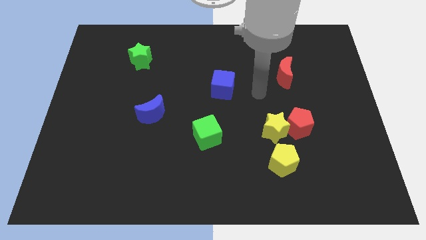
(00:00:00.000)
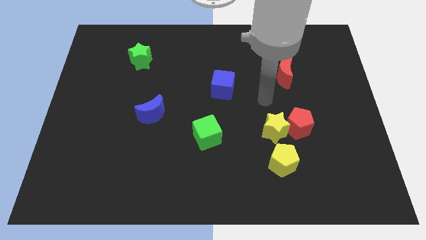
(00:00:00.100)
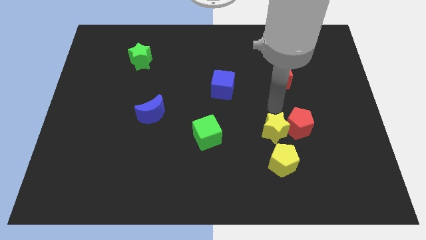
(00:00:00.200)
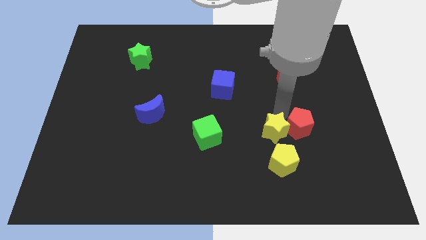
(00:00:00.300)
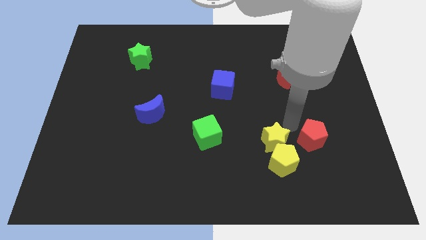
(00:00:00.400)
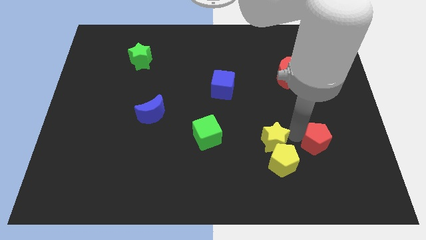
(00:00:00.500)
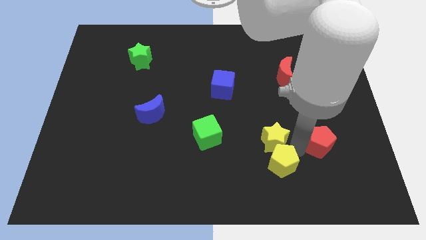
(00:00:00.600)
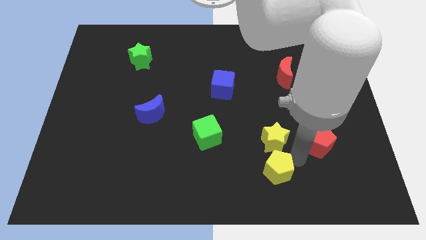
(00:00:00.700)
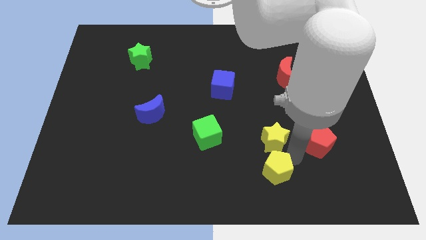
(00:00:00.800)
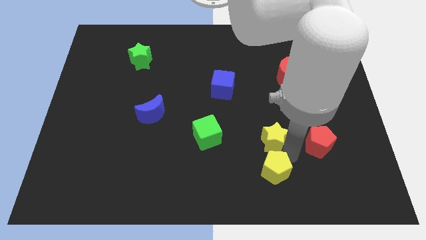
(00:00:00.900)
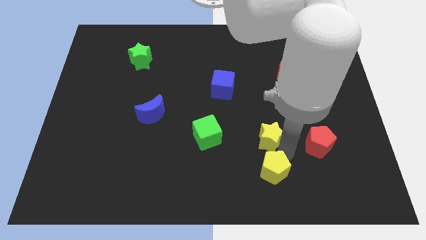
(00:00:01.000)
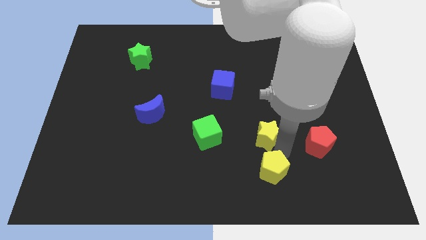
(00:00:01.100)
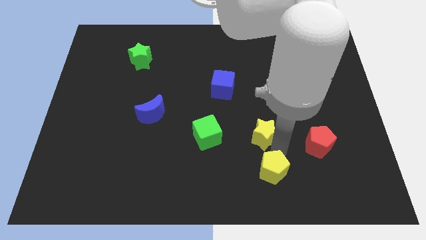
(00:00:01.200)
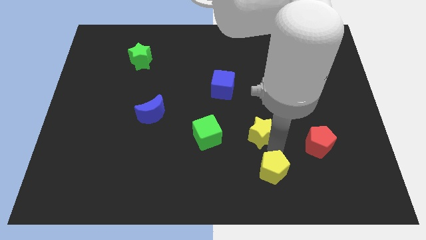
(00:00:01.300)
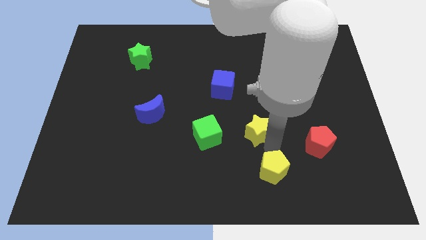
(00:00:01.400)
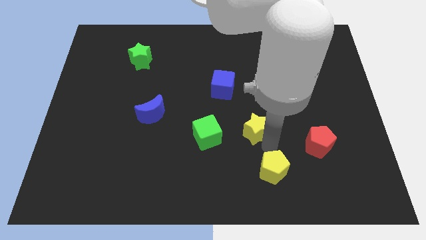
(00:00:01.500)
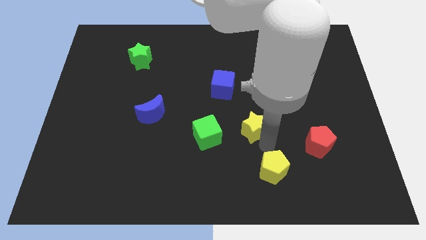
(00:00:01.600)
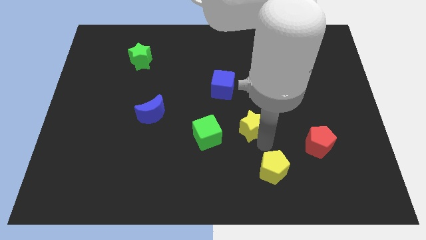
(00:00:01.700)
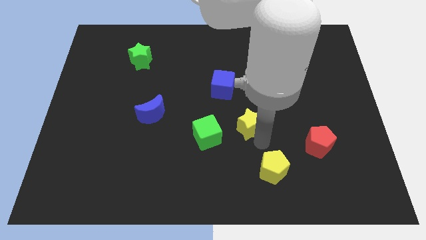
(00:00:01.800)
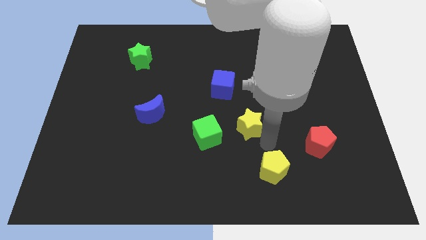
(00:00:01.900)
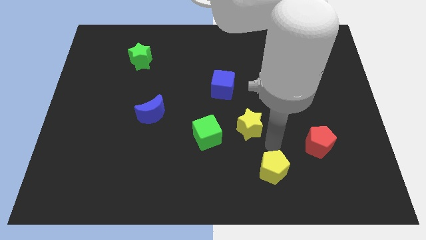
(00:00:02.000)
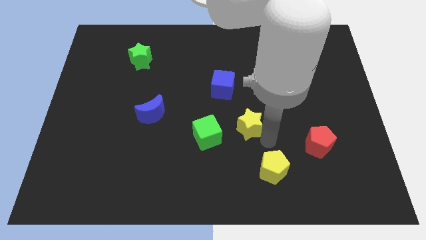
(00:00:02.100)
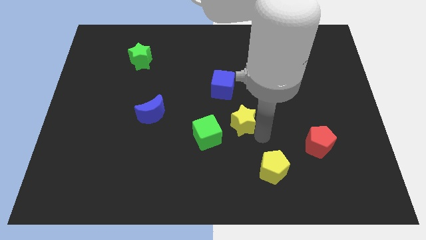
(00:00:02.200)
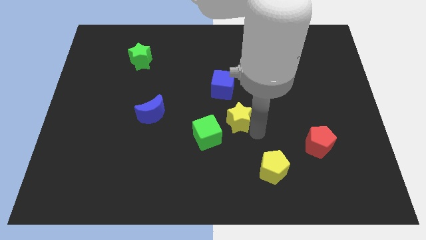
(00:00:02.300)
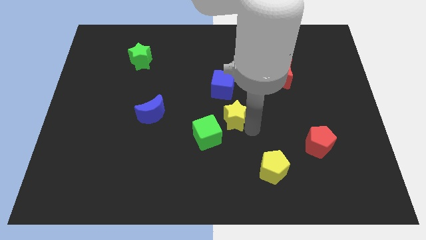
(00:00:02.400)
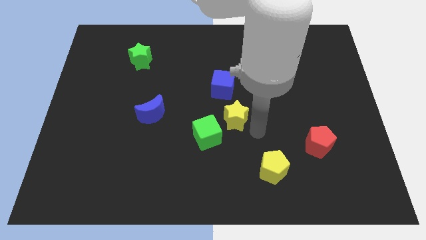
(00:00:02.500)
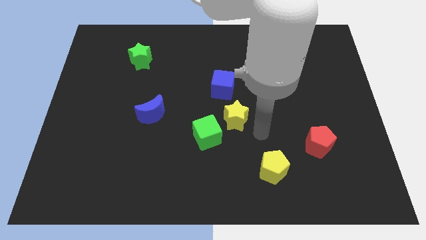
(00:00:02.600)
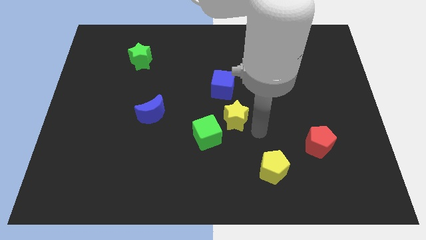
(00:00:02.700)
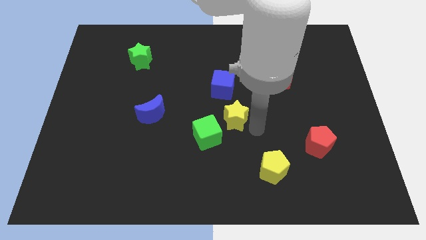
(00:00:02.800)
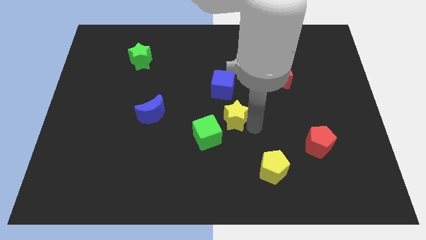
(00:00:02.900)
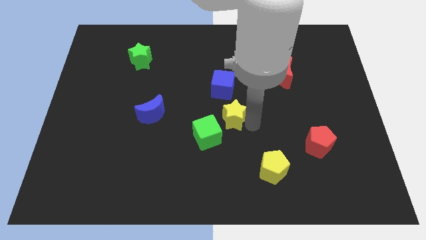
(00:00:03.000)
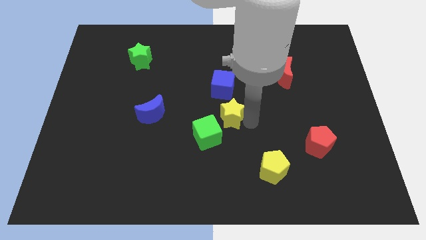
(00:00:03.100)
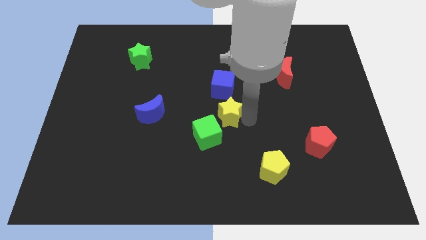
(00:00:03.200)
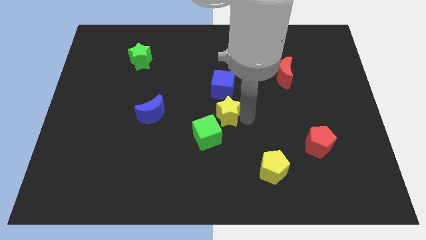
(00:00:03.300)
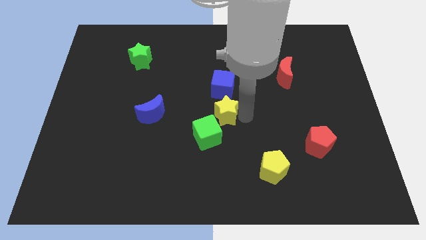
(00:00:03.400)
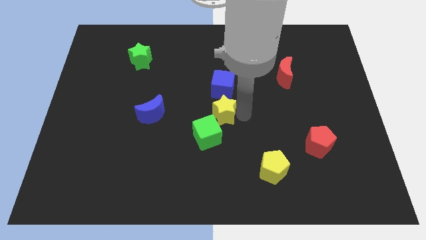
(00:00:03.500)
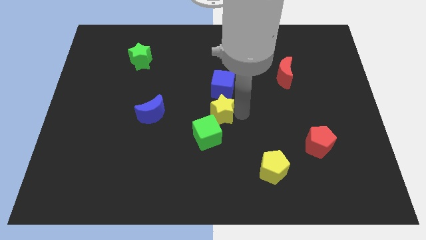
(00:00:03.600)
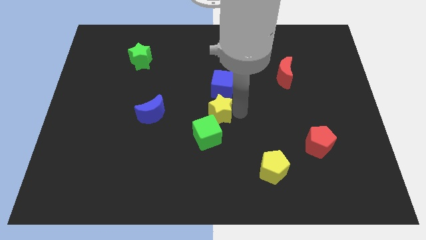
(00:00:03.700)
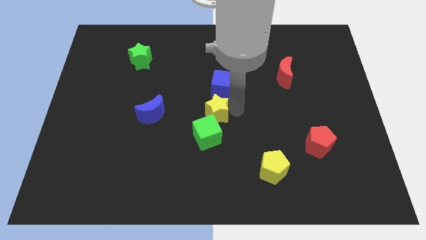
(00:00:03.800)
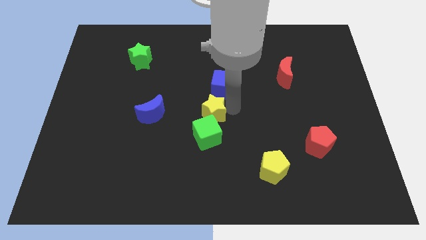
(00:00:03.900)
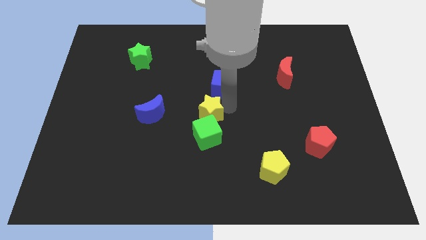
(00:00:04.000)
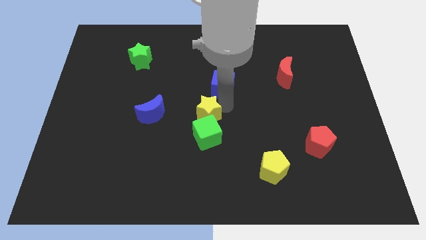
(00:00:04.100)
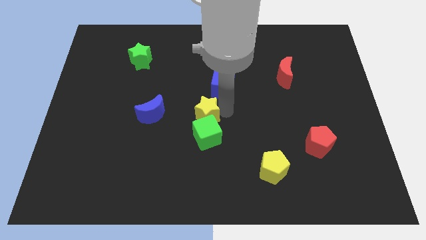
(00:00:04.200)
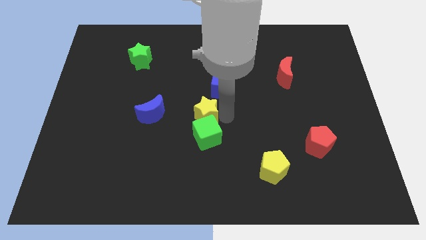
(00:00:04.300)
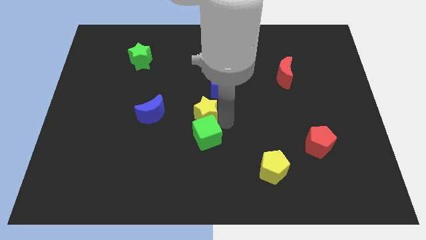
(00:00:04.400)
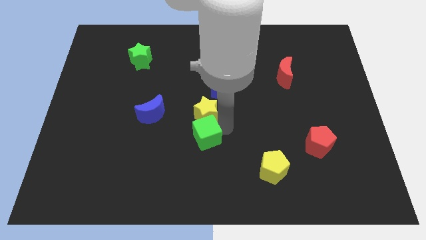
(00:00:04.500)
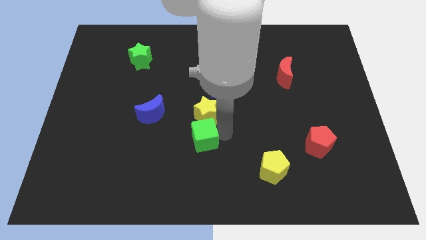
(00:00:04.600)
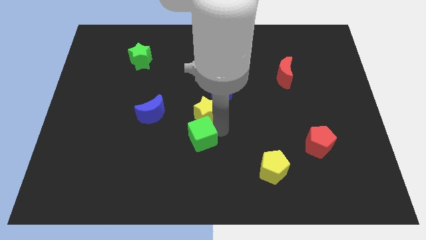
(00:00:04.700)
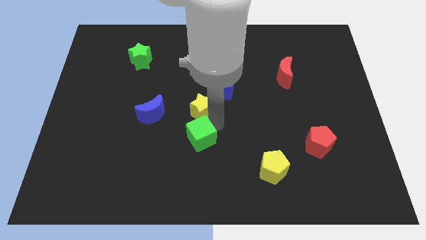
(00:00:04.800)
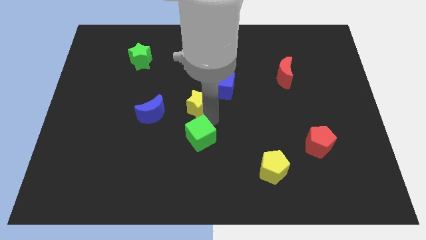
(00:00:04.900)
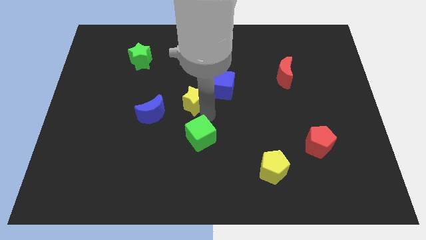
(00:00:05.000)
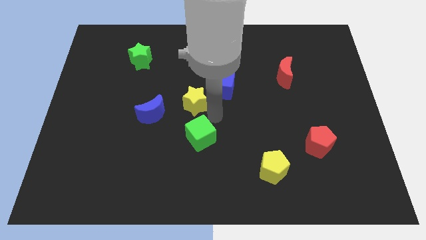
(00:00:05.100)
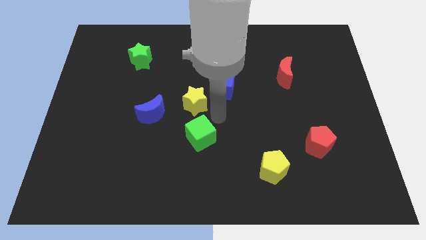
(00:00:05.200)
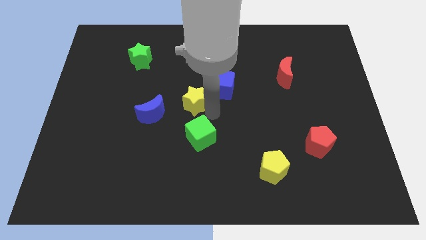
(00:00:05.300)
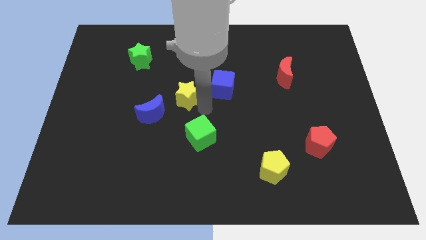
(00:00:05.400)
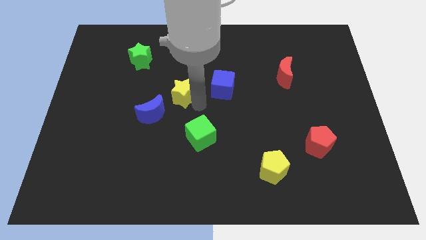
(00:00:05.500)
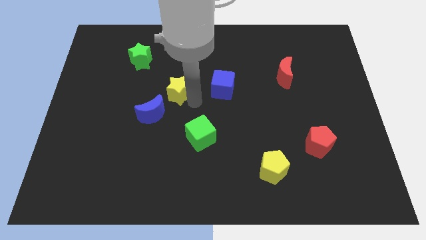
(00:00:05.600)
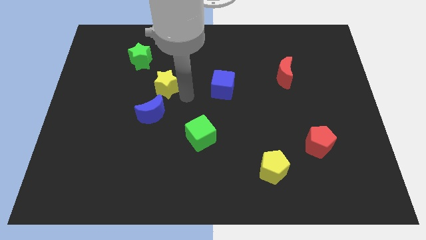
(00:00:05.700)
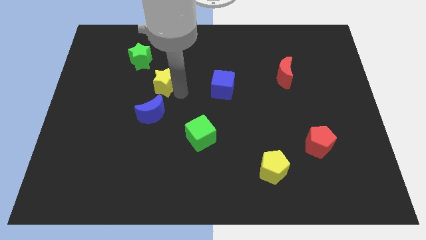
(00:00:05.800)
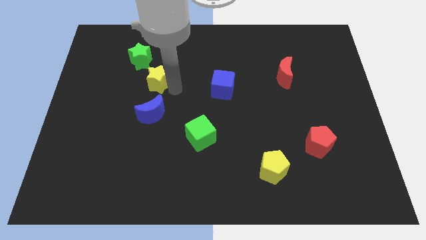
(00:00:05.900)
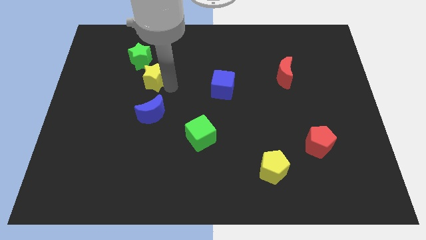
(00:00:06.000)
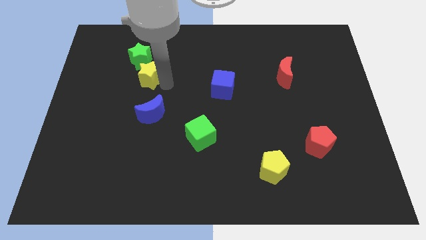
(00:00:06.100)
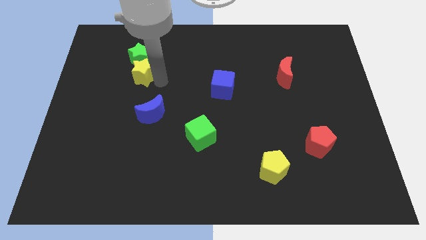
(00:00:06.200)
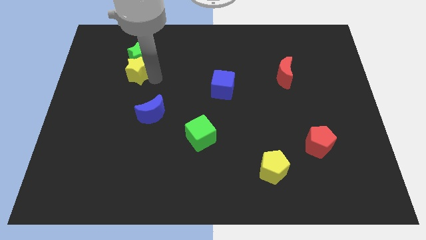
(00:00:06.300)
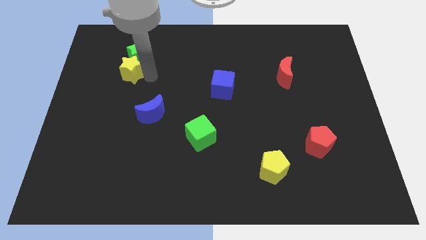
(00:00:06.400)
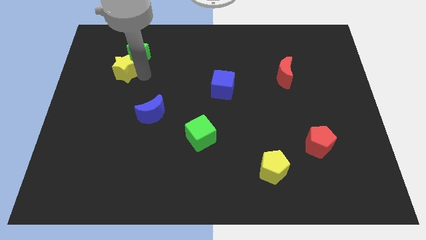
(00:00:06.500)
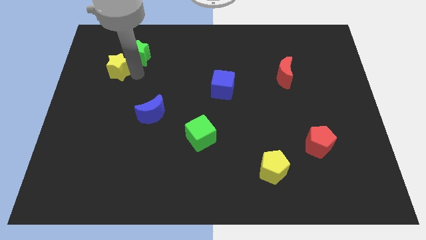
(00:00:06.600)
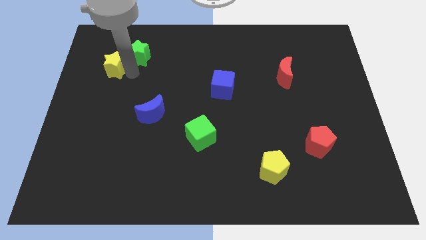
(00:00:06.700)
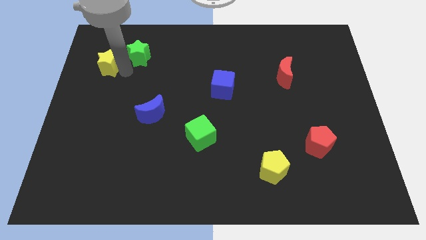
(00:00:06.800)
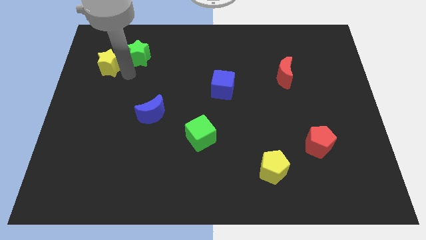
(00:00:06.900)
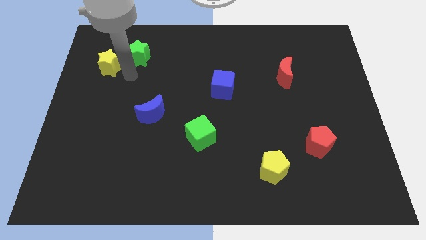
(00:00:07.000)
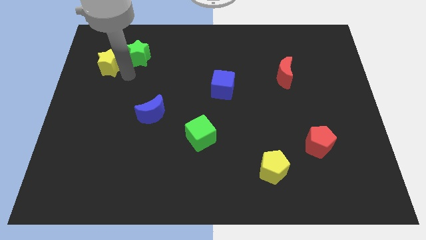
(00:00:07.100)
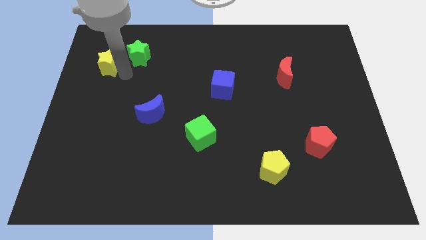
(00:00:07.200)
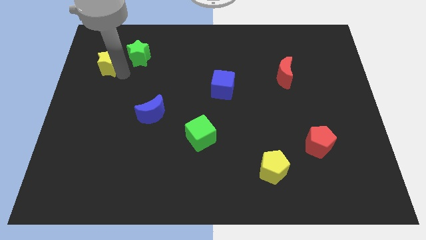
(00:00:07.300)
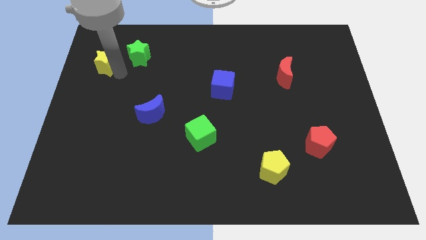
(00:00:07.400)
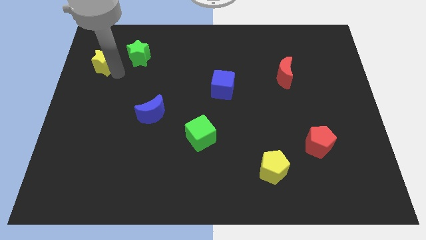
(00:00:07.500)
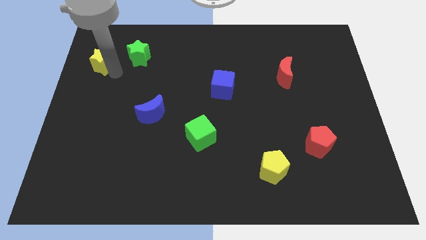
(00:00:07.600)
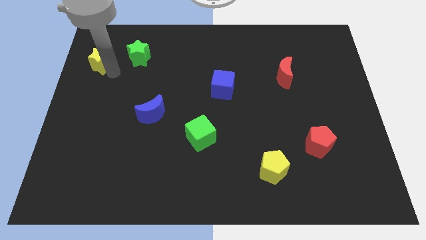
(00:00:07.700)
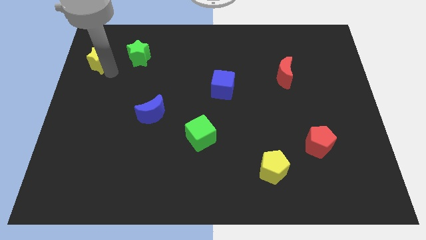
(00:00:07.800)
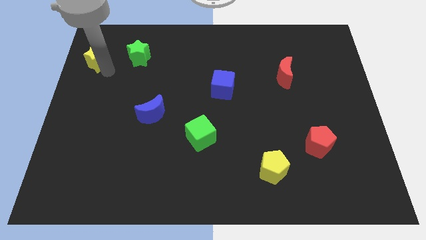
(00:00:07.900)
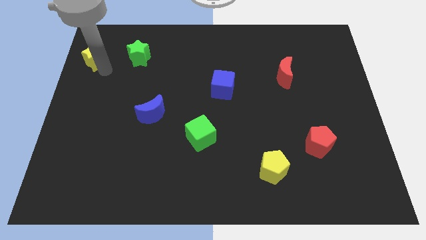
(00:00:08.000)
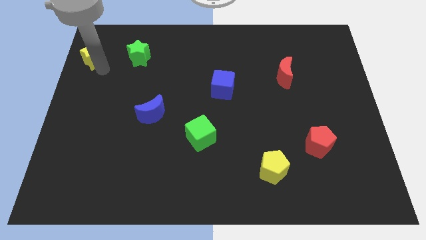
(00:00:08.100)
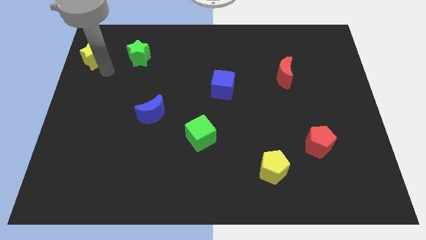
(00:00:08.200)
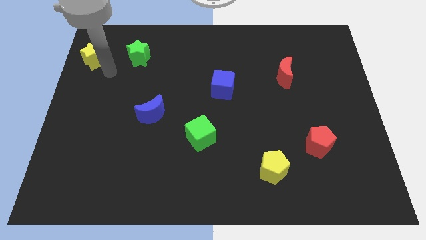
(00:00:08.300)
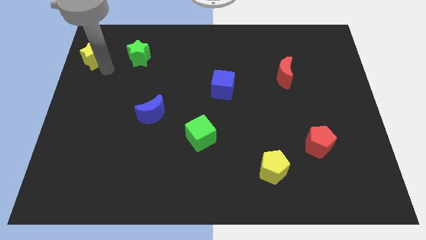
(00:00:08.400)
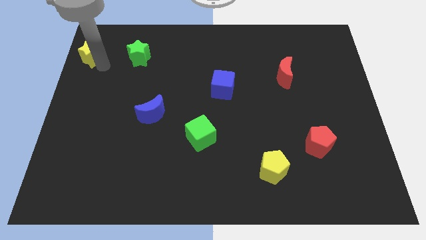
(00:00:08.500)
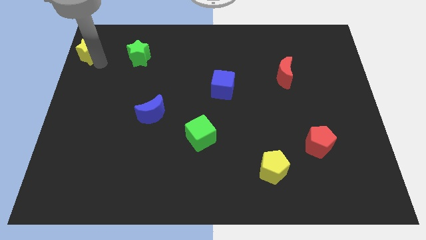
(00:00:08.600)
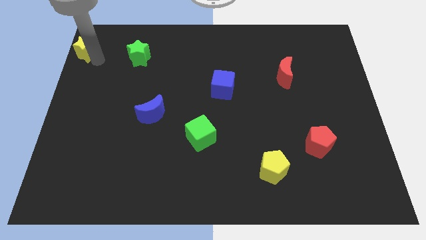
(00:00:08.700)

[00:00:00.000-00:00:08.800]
move the yellow star to the top left corner
